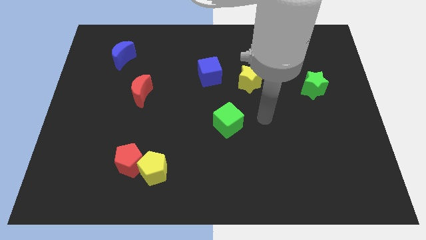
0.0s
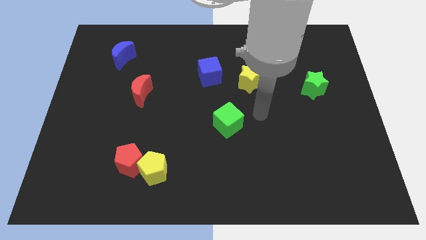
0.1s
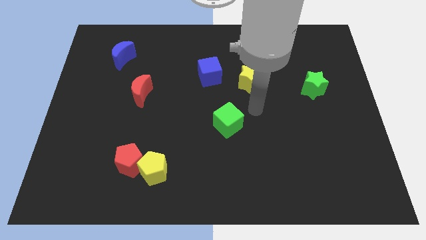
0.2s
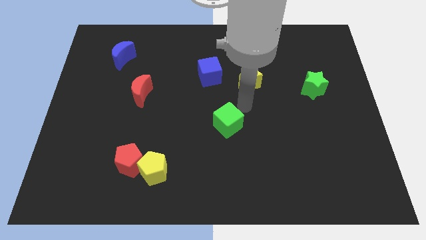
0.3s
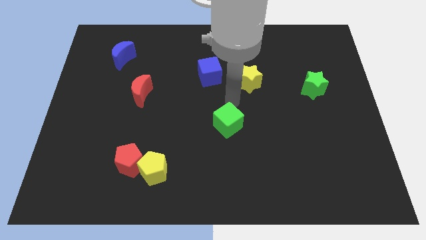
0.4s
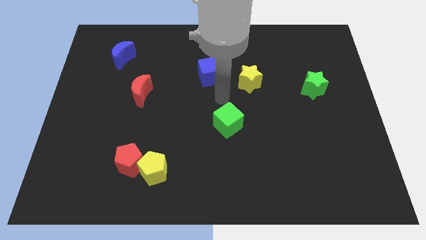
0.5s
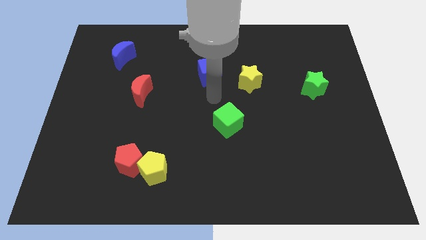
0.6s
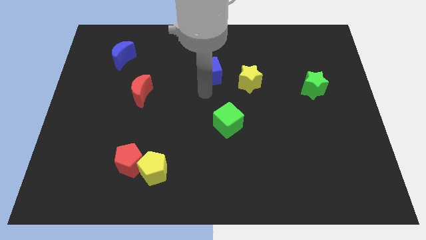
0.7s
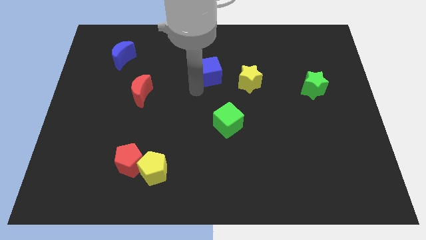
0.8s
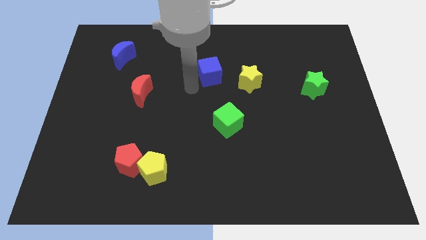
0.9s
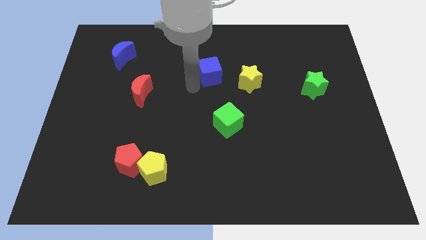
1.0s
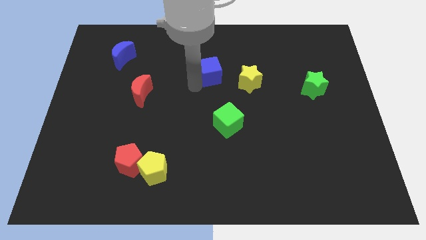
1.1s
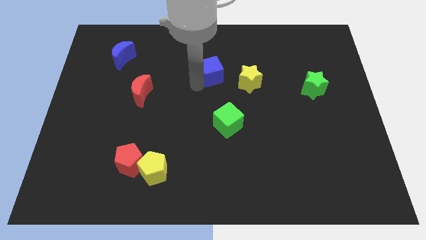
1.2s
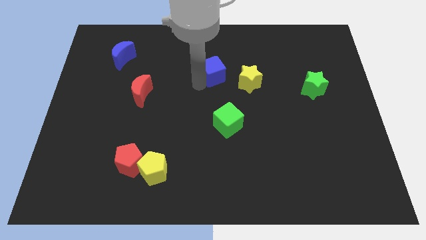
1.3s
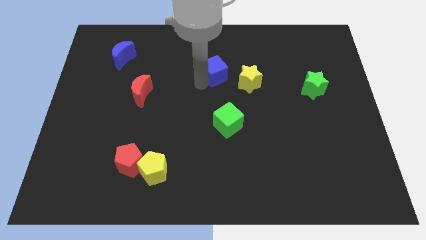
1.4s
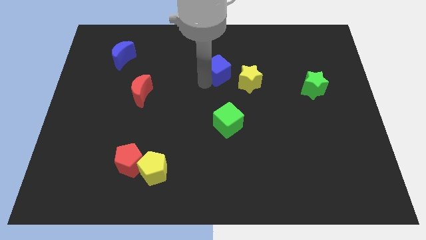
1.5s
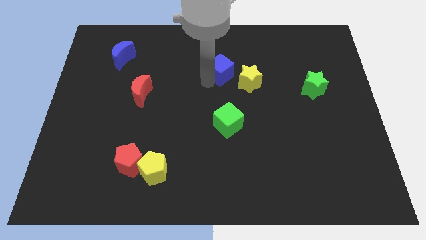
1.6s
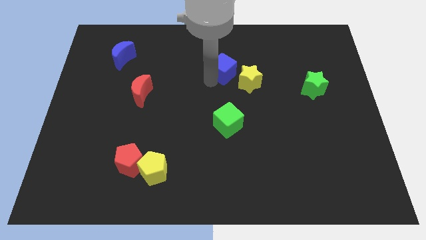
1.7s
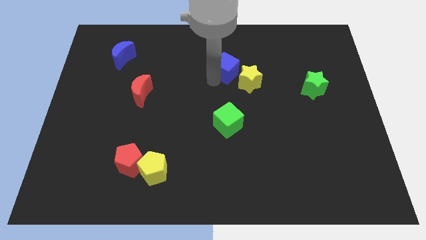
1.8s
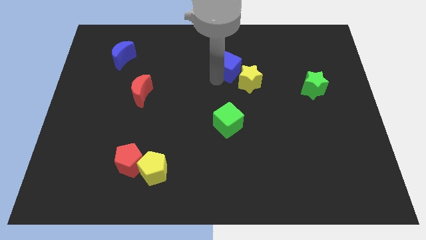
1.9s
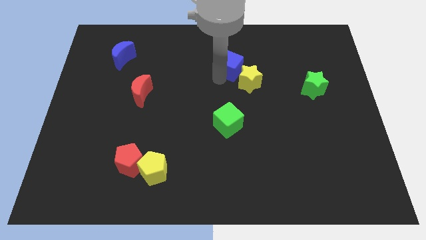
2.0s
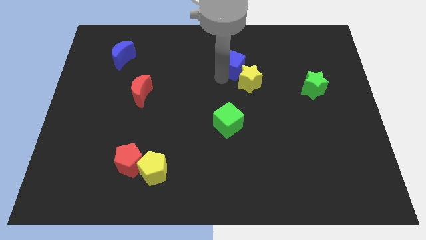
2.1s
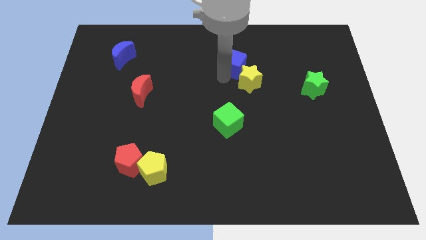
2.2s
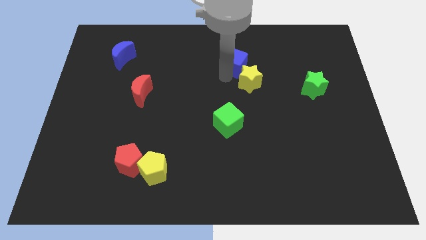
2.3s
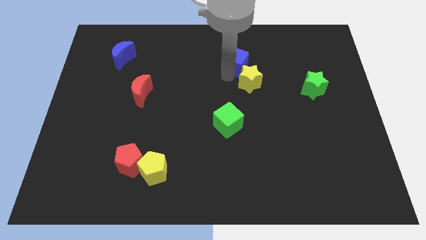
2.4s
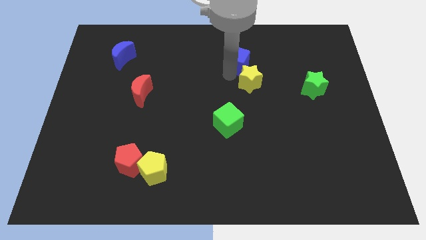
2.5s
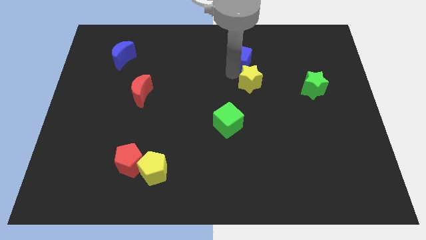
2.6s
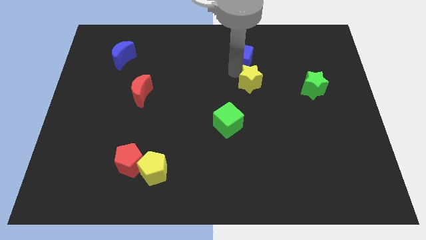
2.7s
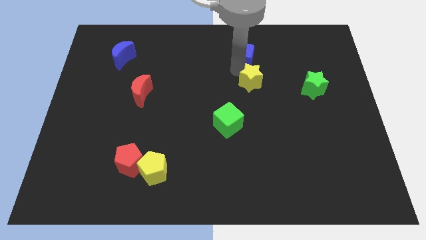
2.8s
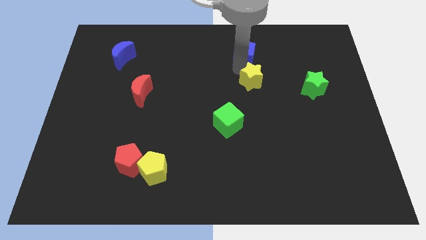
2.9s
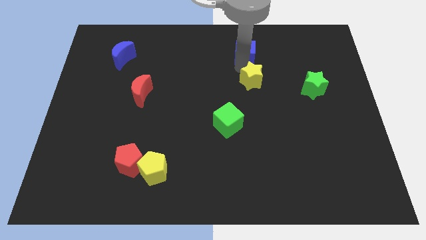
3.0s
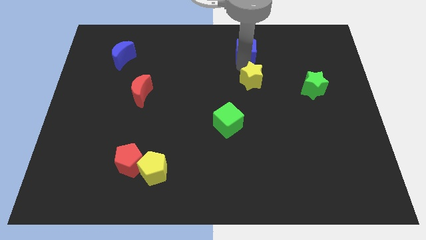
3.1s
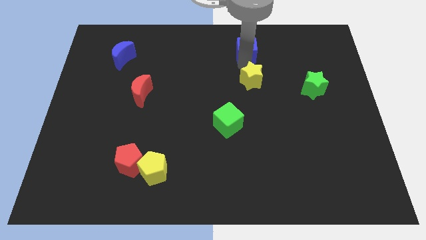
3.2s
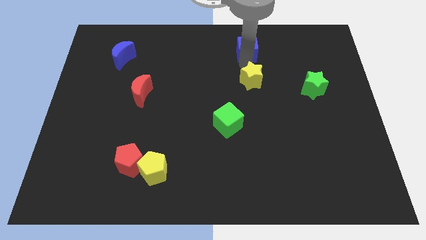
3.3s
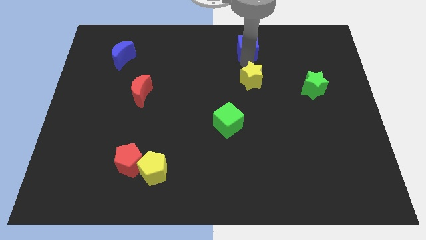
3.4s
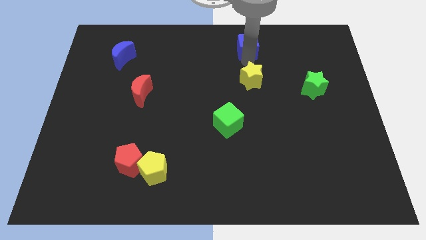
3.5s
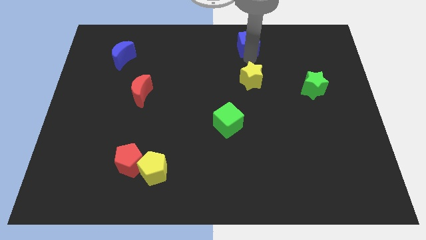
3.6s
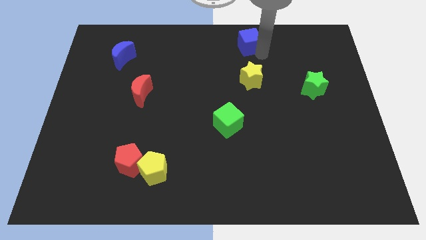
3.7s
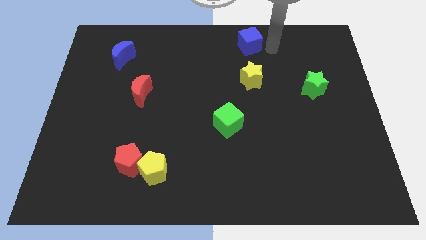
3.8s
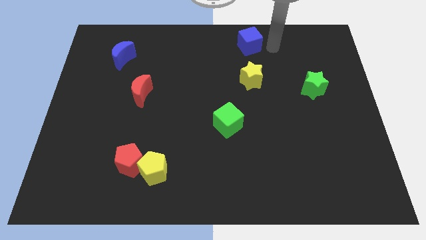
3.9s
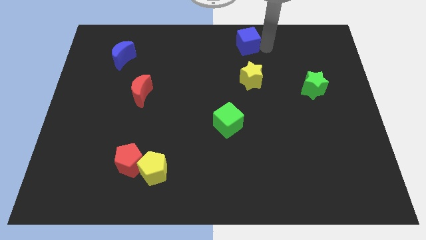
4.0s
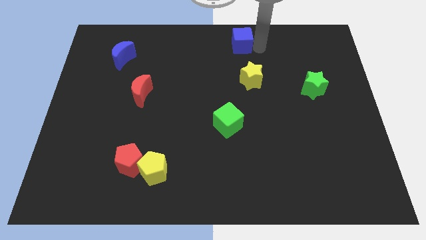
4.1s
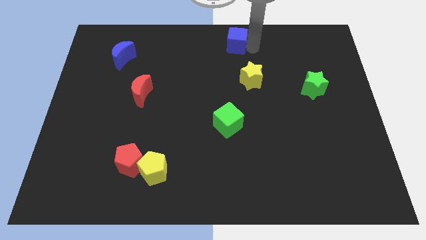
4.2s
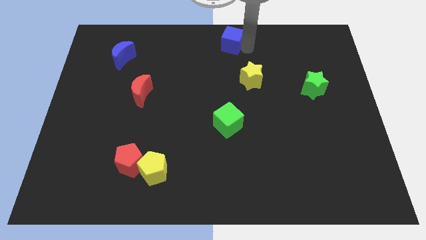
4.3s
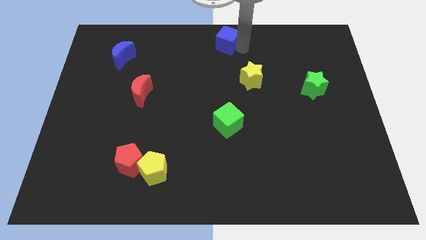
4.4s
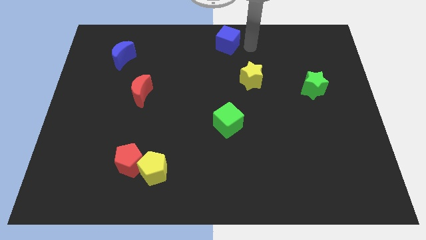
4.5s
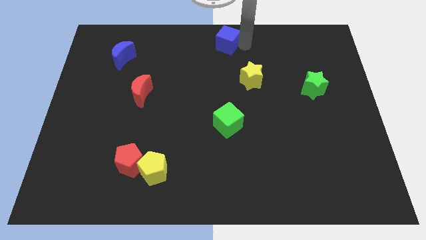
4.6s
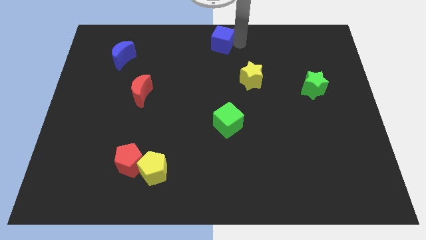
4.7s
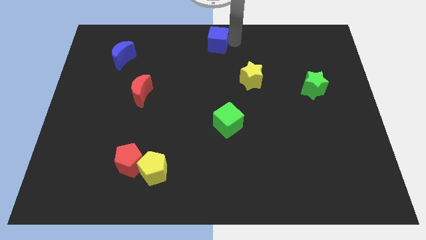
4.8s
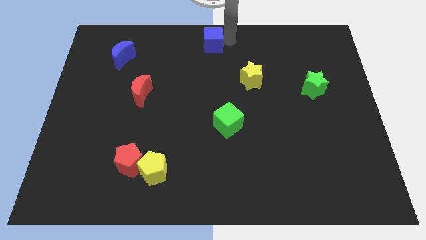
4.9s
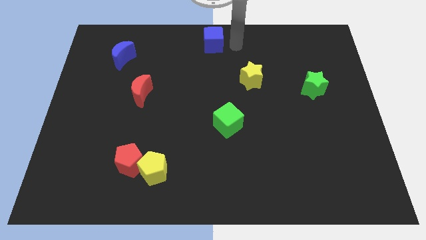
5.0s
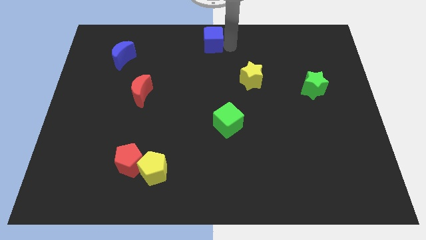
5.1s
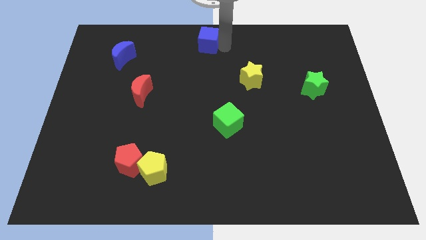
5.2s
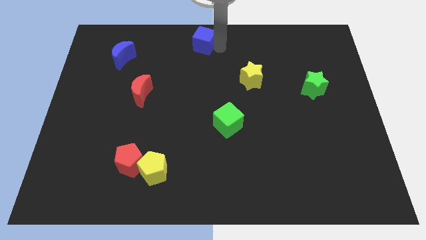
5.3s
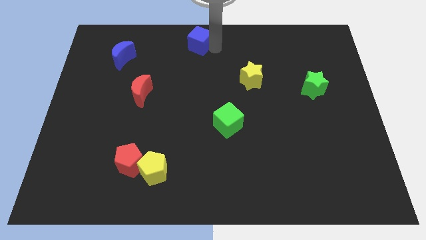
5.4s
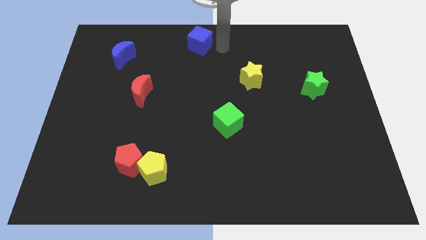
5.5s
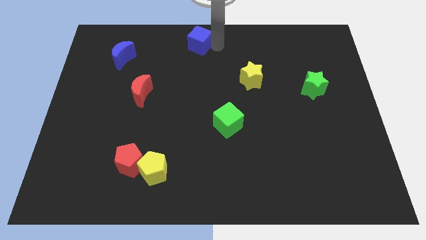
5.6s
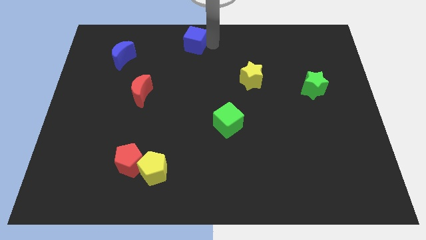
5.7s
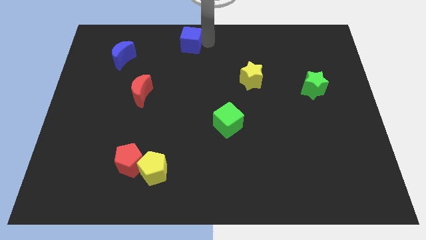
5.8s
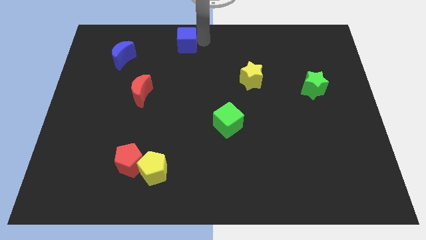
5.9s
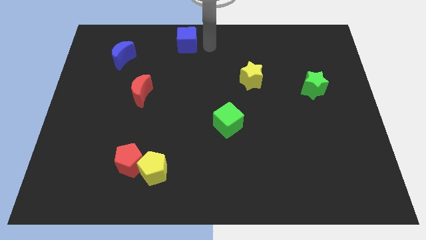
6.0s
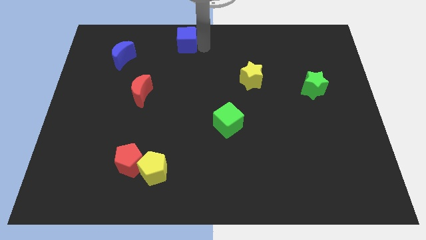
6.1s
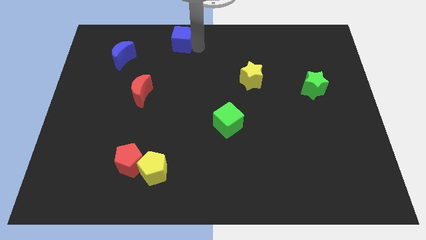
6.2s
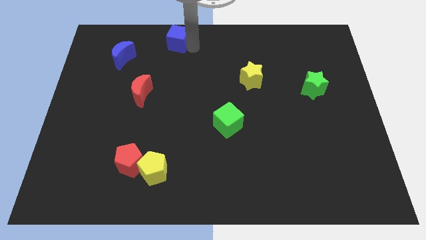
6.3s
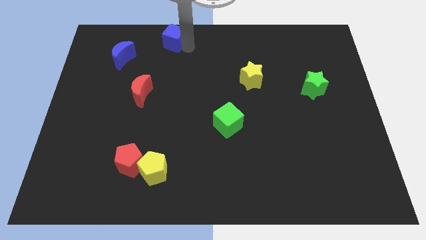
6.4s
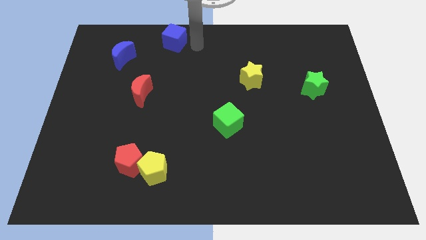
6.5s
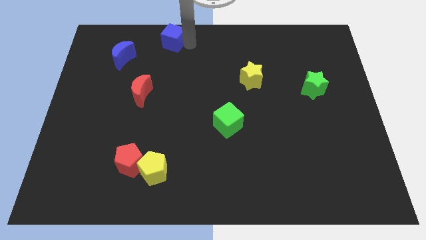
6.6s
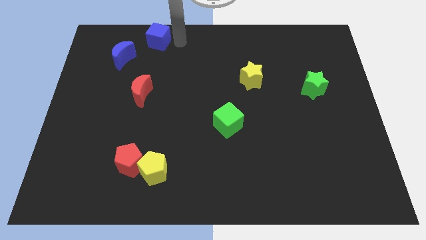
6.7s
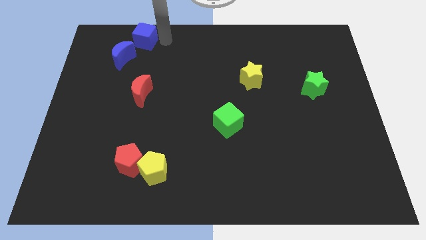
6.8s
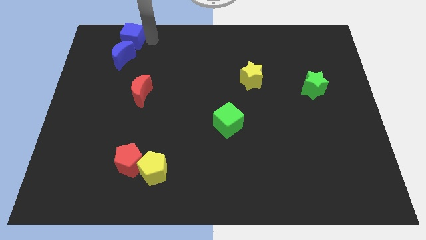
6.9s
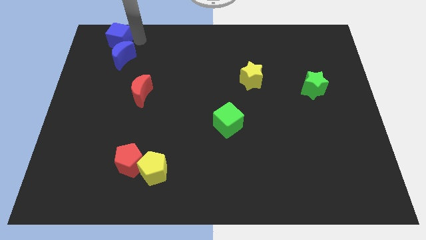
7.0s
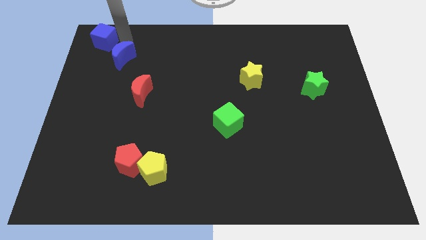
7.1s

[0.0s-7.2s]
move the blue cube to the top left corner

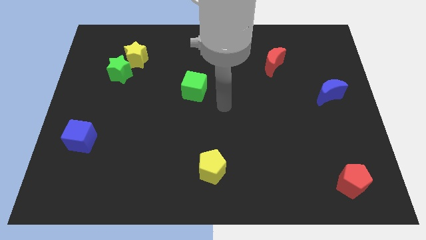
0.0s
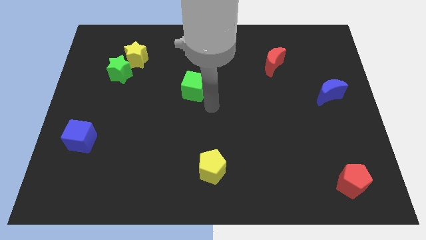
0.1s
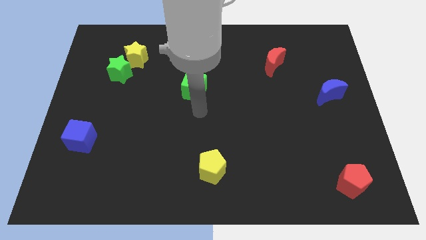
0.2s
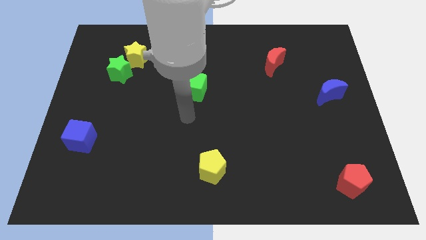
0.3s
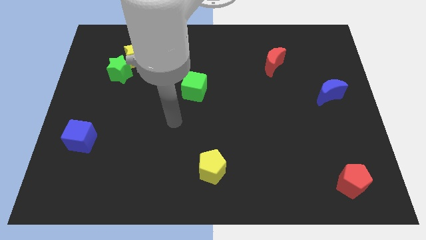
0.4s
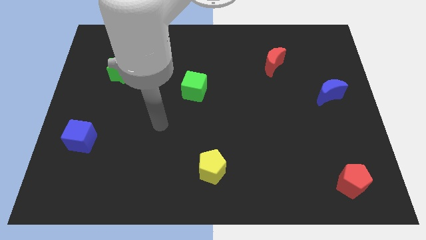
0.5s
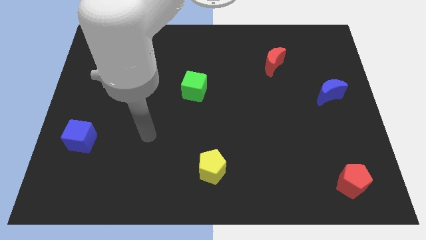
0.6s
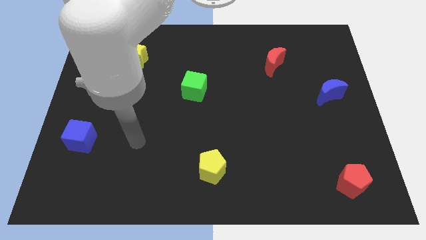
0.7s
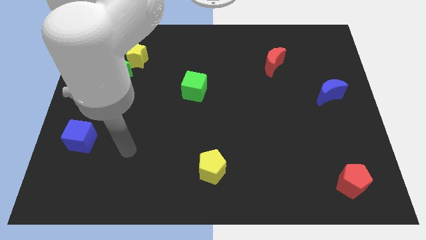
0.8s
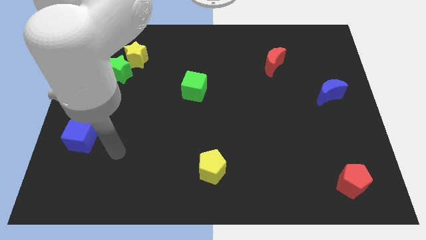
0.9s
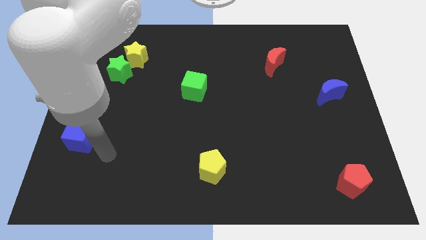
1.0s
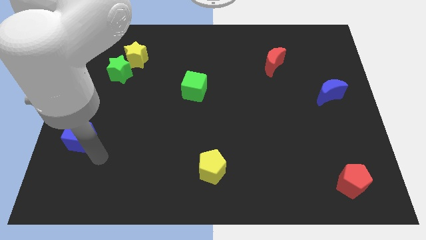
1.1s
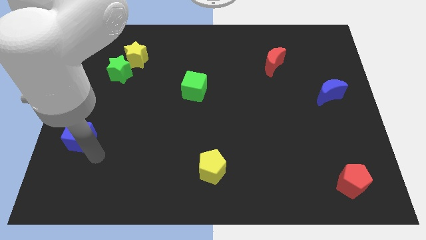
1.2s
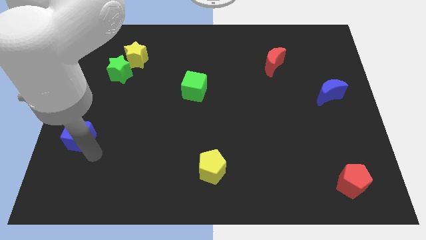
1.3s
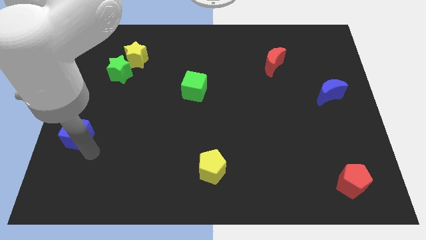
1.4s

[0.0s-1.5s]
put the blue cube to the left side of the board
